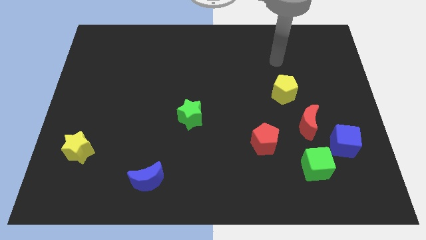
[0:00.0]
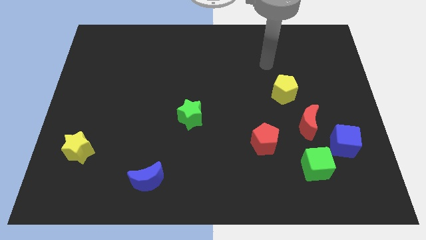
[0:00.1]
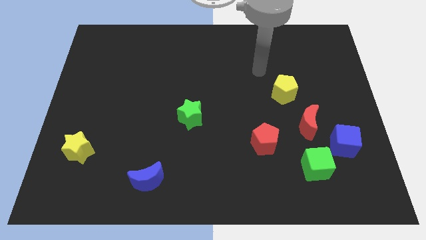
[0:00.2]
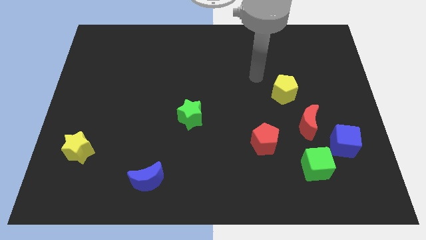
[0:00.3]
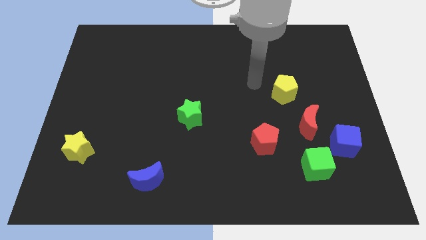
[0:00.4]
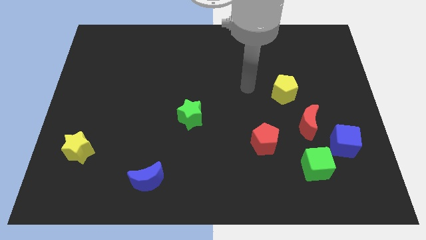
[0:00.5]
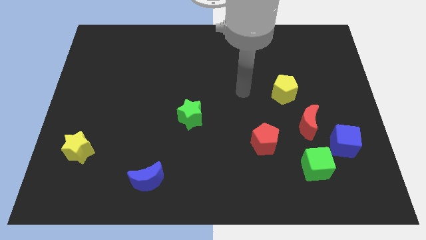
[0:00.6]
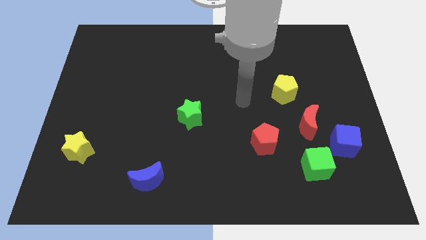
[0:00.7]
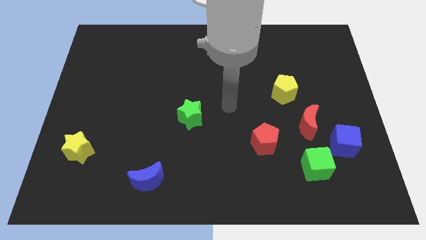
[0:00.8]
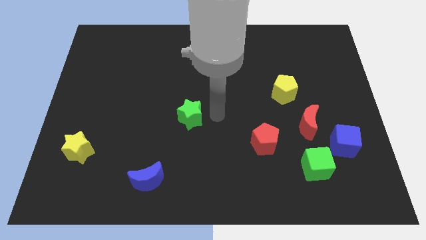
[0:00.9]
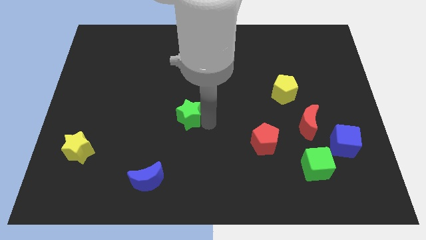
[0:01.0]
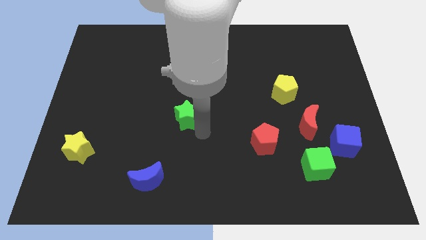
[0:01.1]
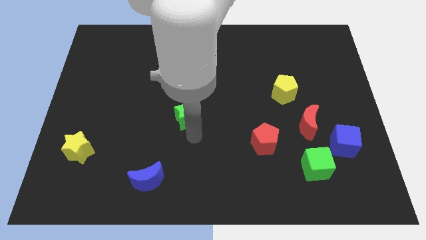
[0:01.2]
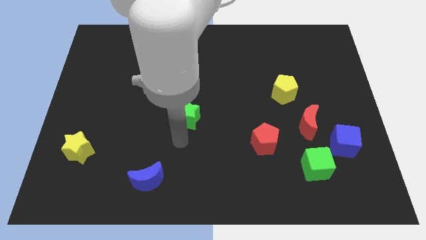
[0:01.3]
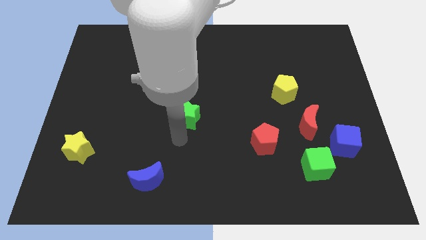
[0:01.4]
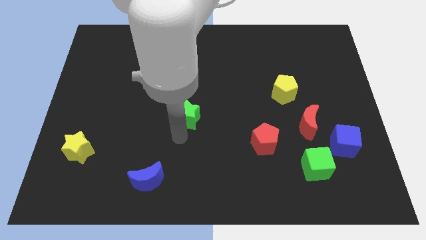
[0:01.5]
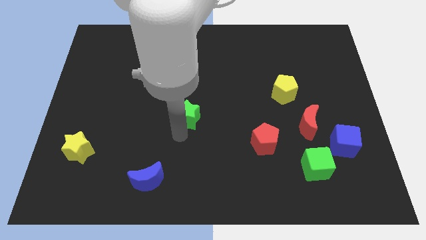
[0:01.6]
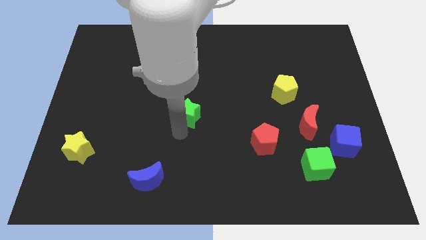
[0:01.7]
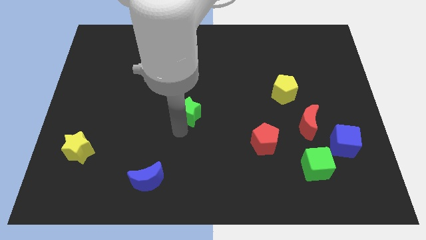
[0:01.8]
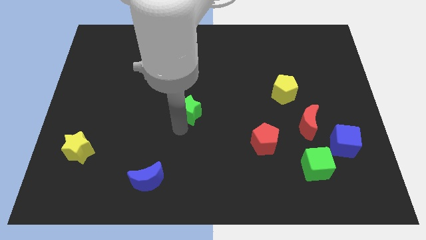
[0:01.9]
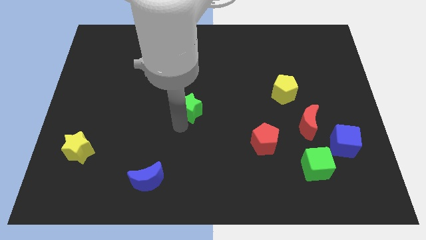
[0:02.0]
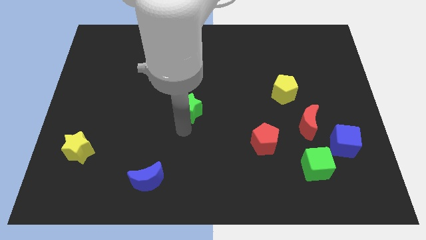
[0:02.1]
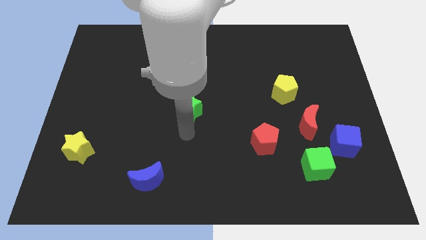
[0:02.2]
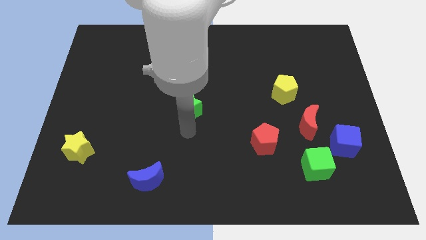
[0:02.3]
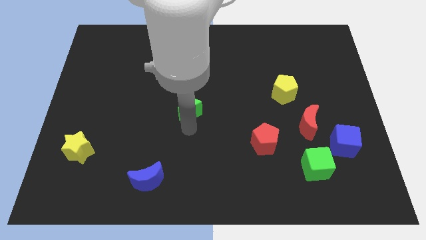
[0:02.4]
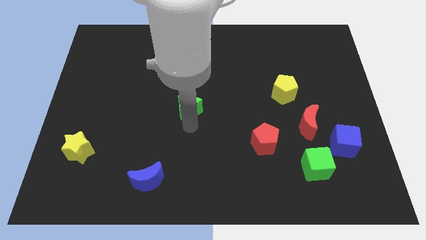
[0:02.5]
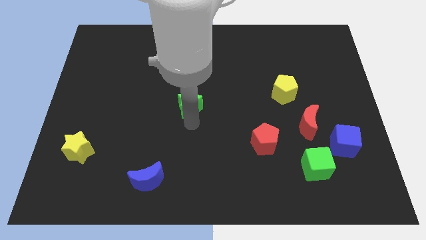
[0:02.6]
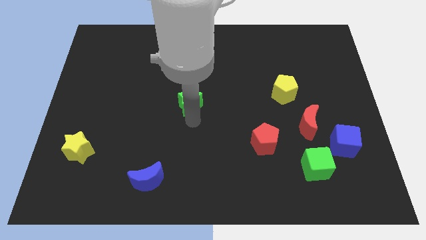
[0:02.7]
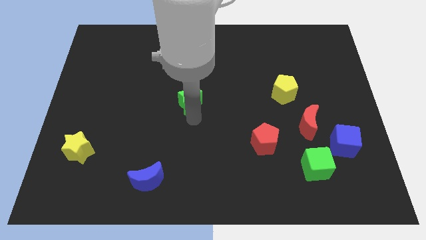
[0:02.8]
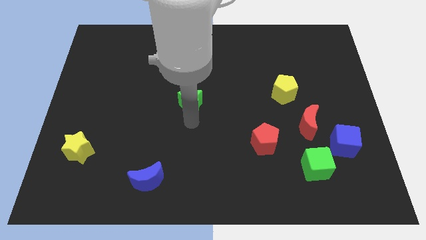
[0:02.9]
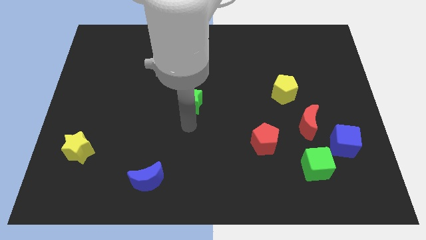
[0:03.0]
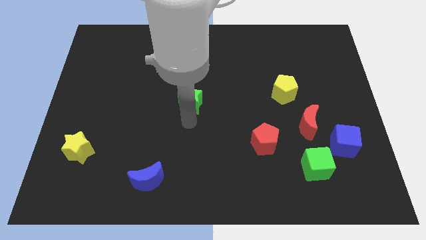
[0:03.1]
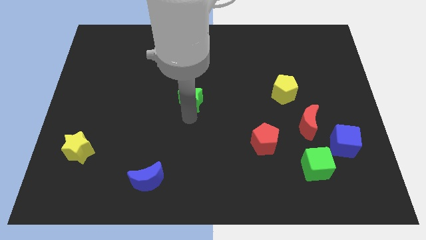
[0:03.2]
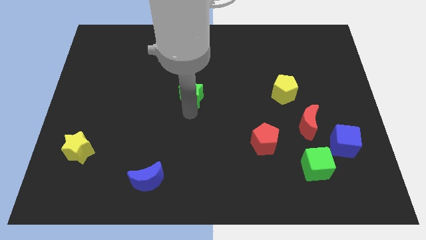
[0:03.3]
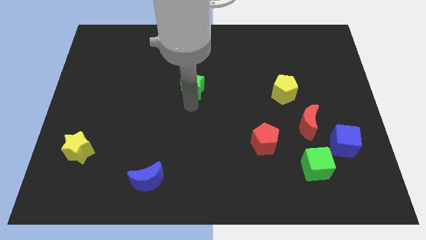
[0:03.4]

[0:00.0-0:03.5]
push the green star a little bit upwards

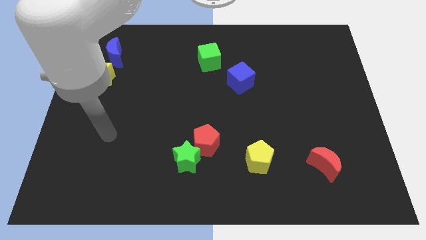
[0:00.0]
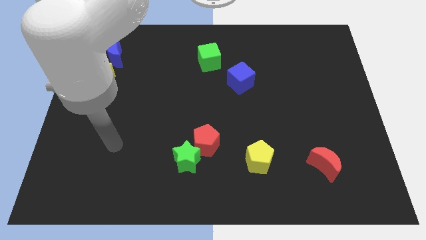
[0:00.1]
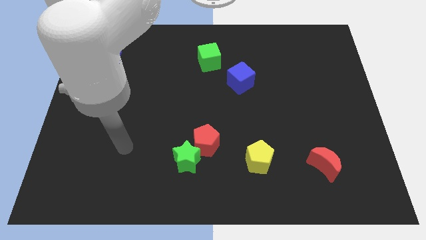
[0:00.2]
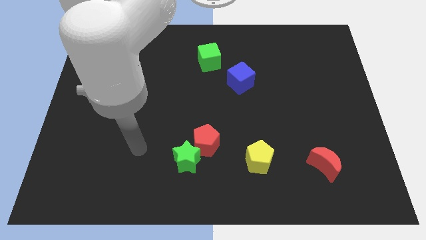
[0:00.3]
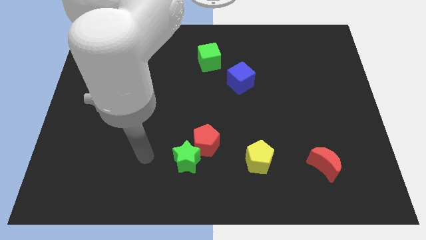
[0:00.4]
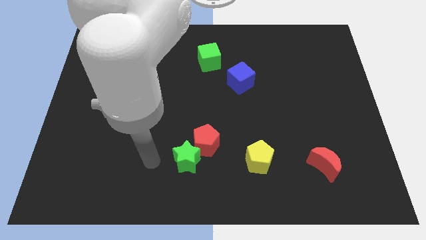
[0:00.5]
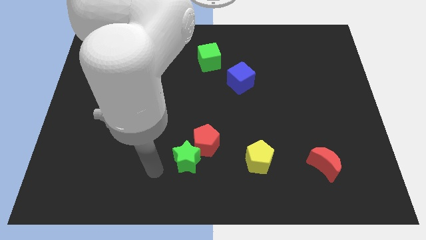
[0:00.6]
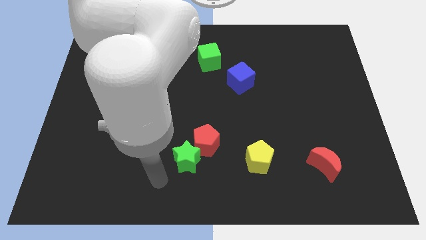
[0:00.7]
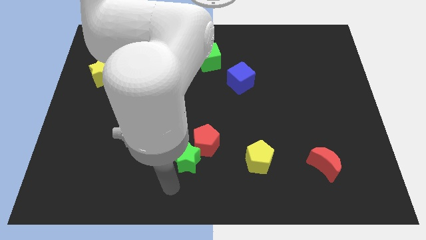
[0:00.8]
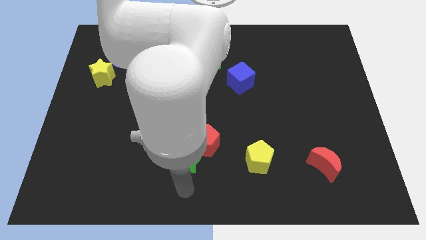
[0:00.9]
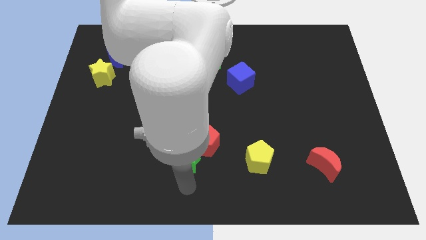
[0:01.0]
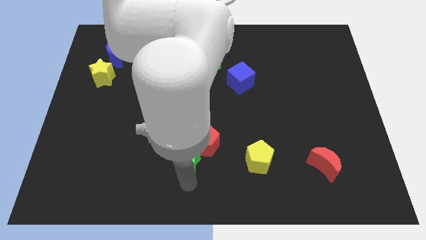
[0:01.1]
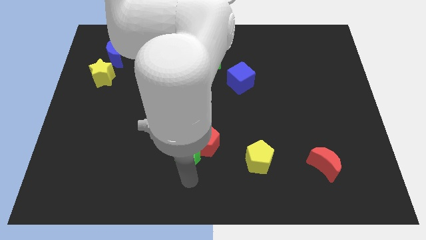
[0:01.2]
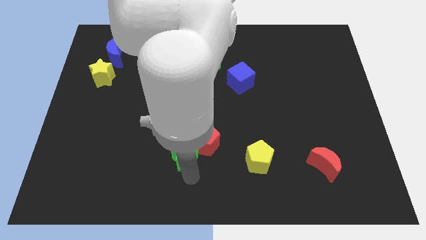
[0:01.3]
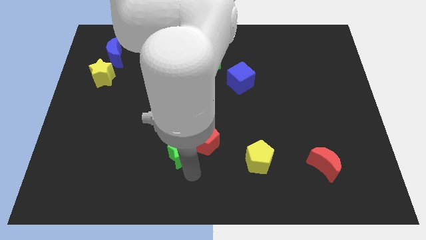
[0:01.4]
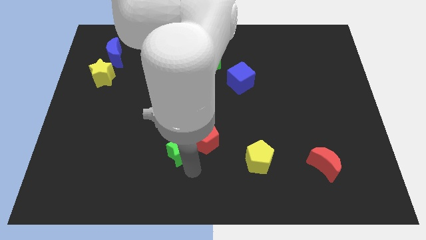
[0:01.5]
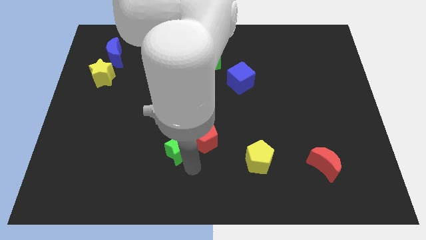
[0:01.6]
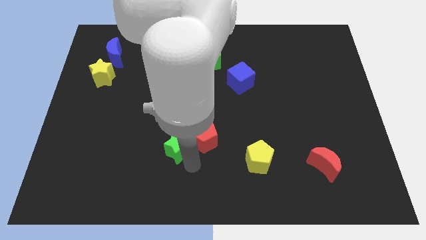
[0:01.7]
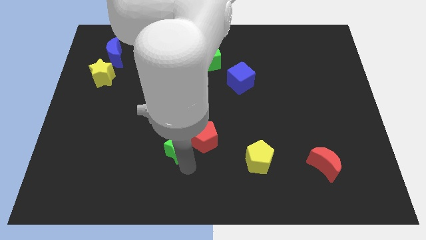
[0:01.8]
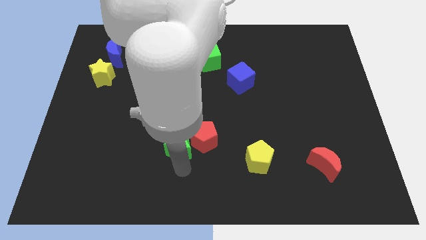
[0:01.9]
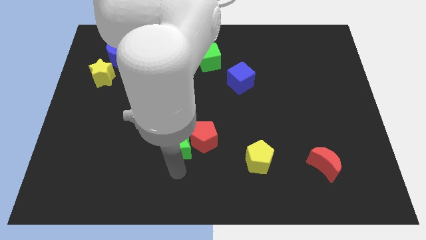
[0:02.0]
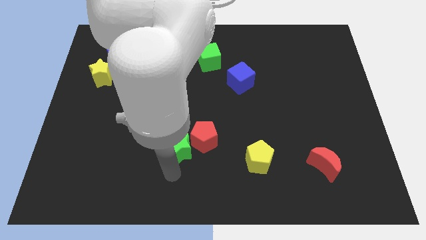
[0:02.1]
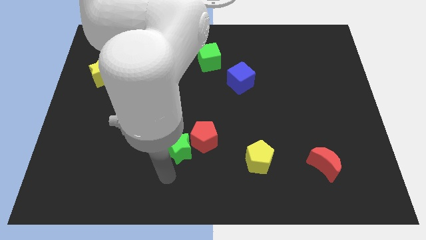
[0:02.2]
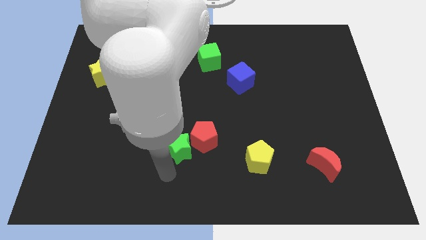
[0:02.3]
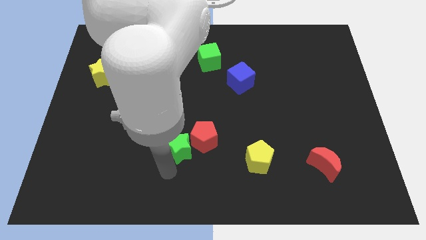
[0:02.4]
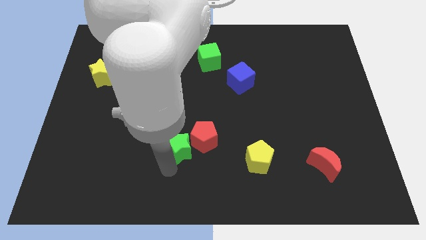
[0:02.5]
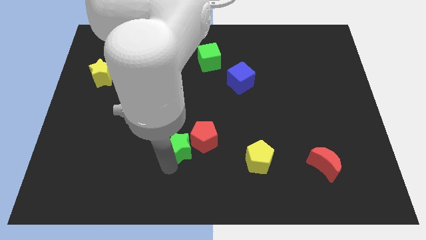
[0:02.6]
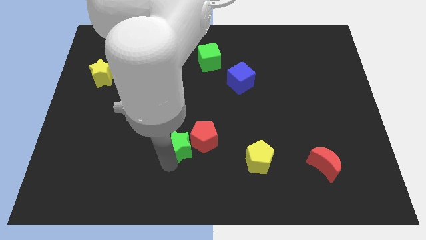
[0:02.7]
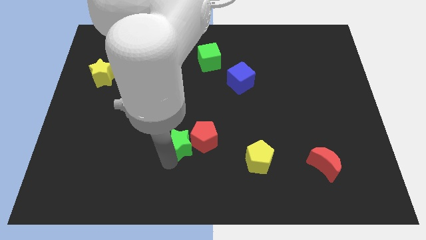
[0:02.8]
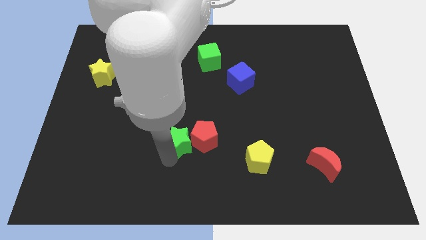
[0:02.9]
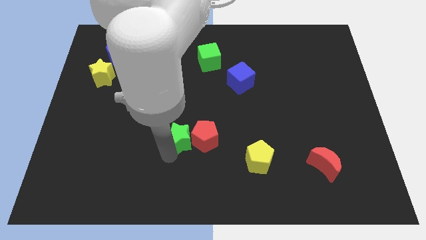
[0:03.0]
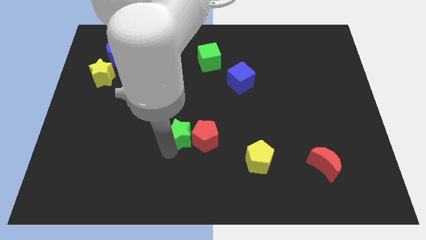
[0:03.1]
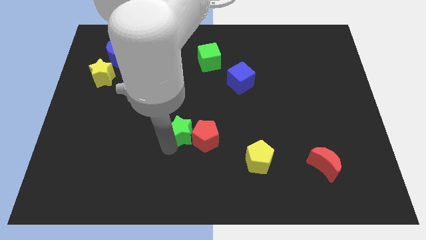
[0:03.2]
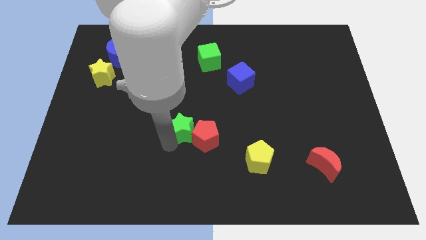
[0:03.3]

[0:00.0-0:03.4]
push the green star a little upwards

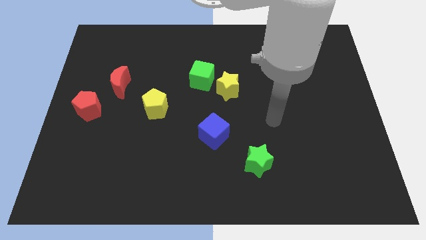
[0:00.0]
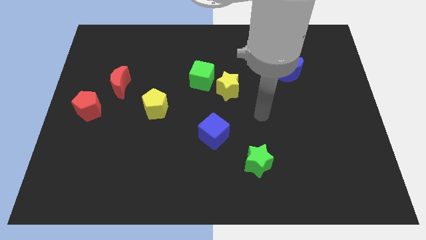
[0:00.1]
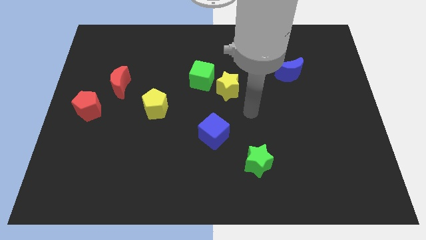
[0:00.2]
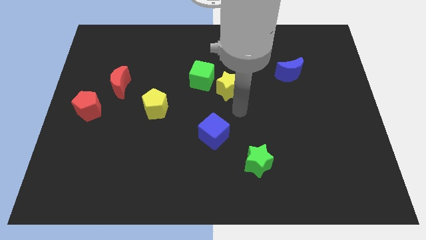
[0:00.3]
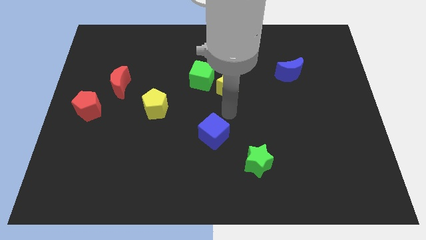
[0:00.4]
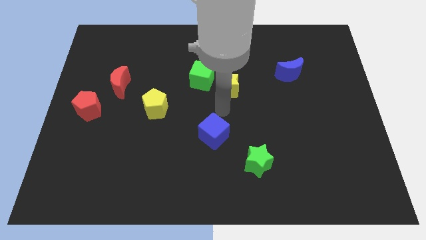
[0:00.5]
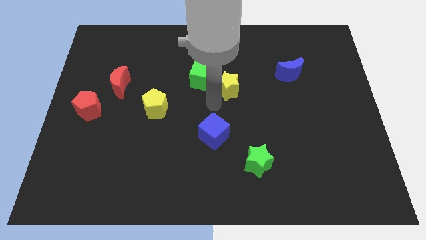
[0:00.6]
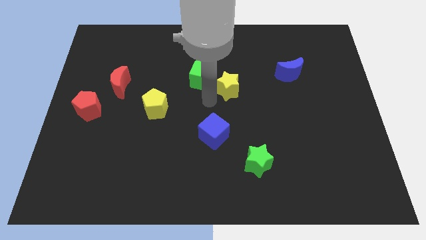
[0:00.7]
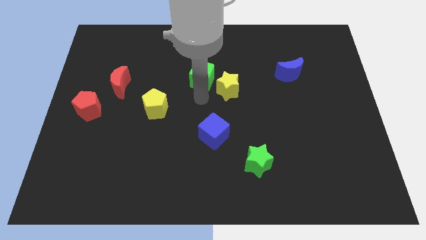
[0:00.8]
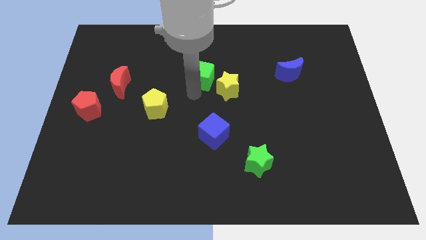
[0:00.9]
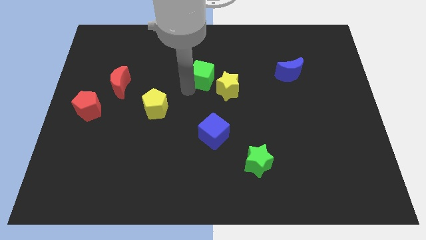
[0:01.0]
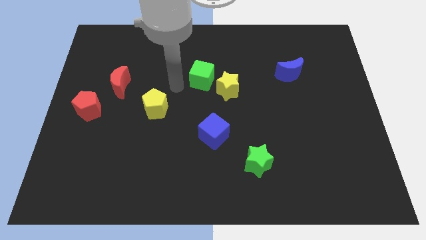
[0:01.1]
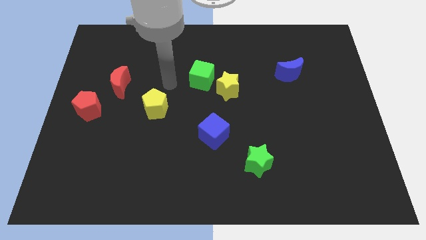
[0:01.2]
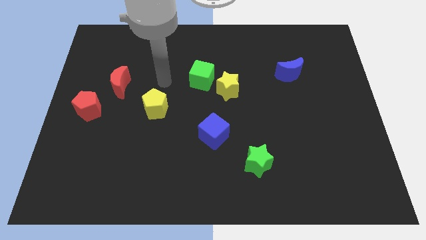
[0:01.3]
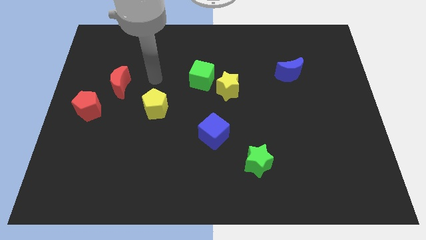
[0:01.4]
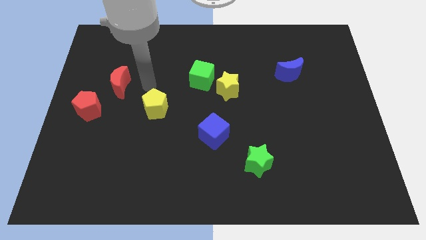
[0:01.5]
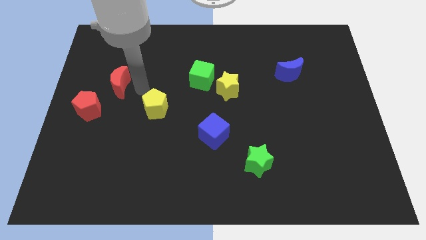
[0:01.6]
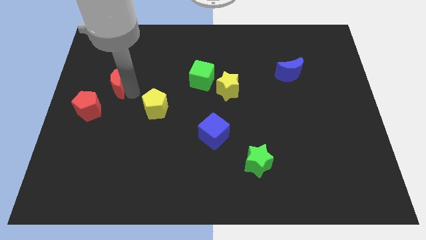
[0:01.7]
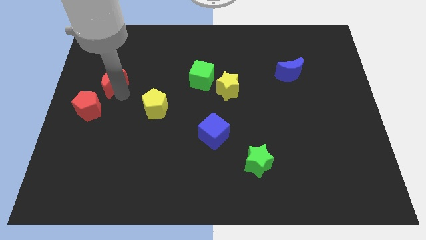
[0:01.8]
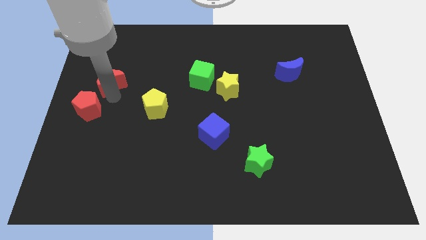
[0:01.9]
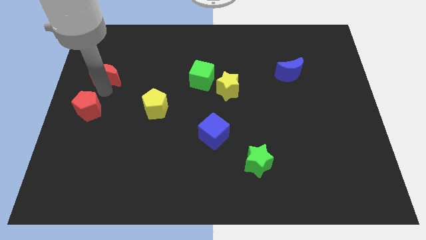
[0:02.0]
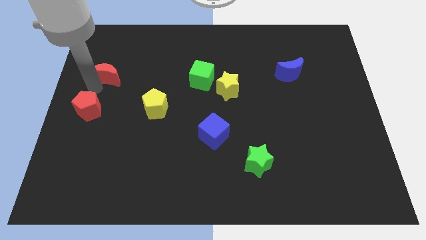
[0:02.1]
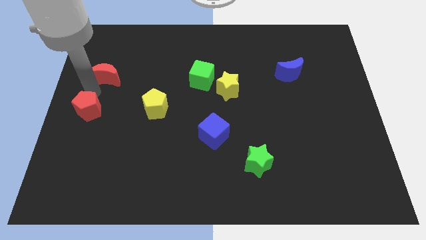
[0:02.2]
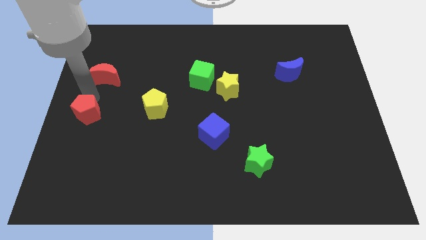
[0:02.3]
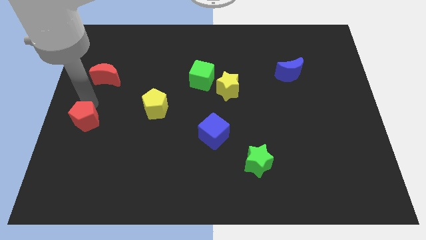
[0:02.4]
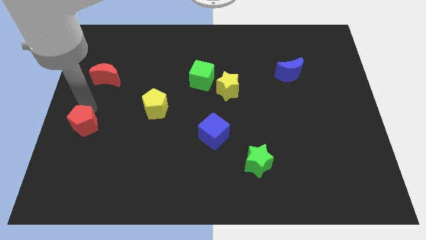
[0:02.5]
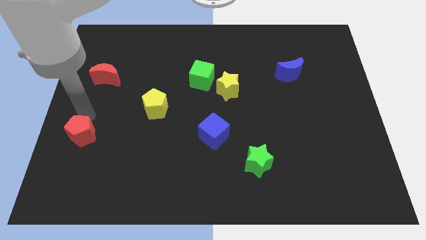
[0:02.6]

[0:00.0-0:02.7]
slightly push the red pentagon down
